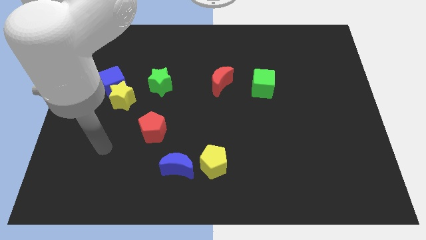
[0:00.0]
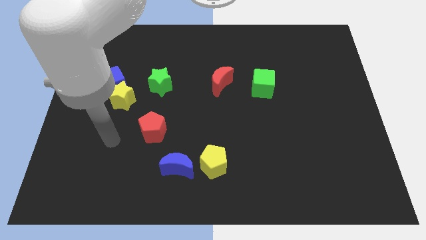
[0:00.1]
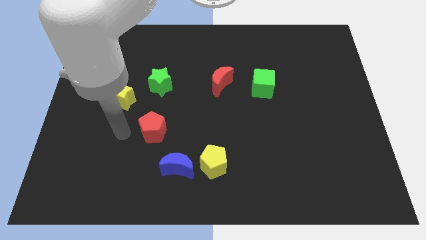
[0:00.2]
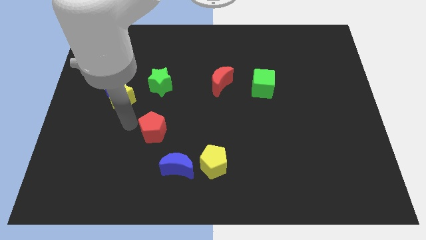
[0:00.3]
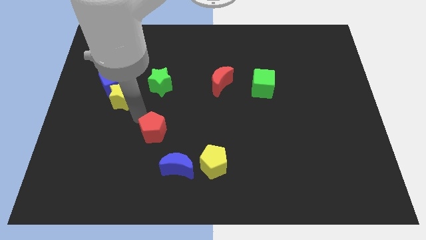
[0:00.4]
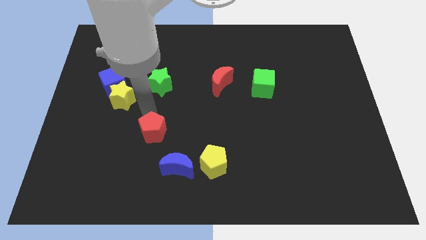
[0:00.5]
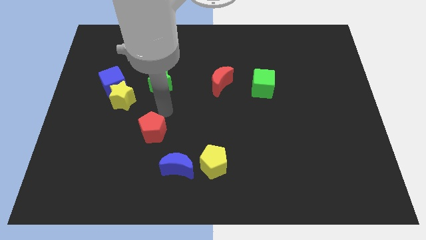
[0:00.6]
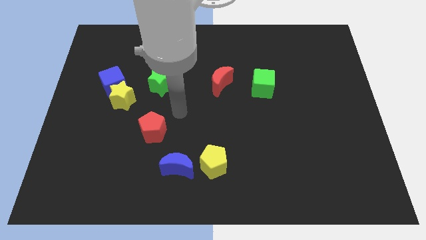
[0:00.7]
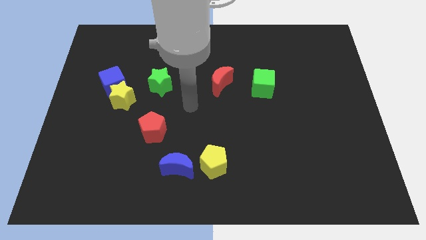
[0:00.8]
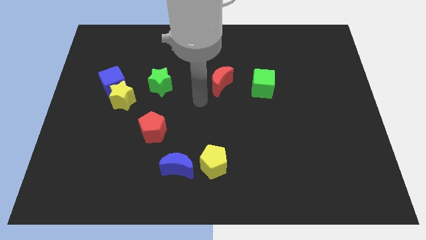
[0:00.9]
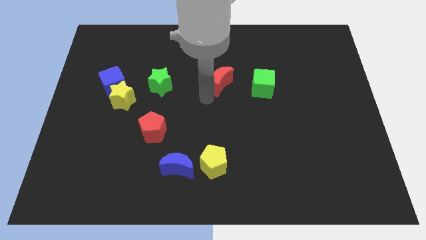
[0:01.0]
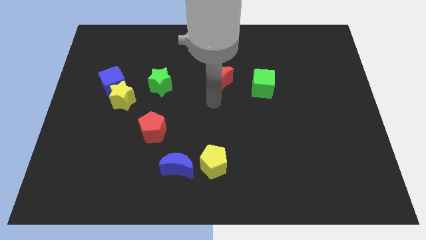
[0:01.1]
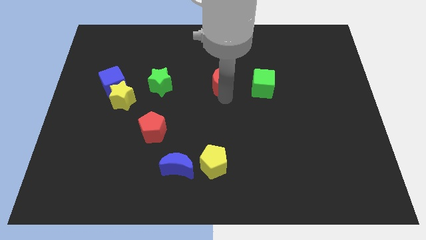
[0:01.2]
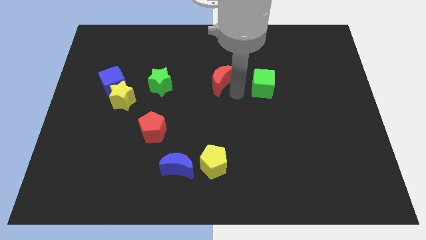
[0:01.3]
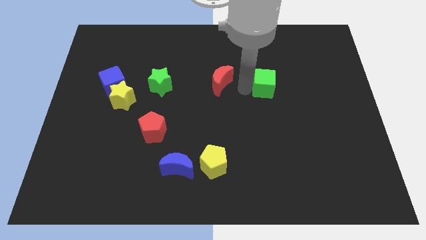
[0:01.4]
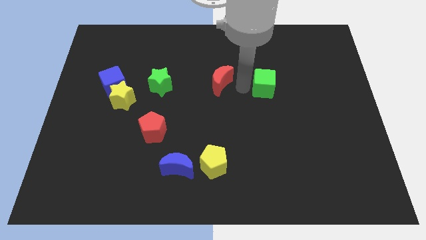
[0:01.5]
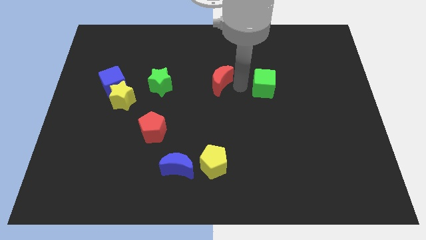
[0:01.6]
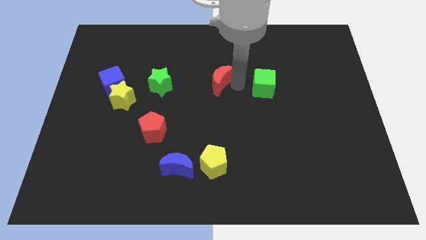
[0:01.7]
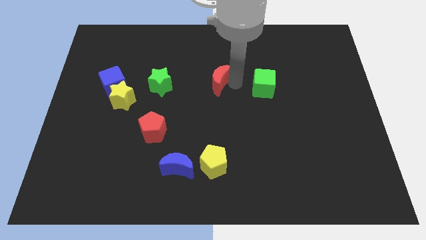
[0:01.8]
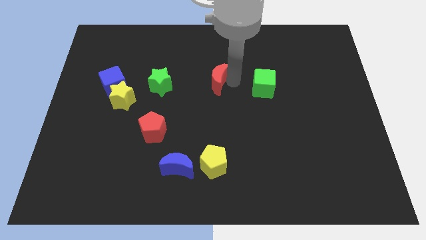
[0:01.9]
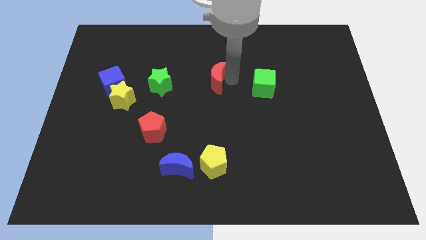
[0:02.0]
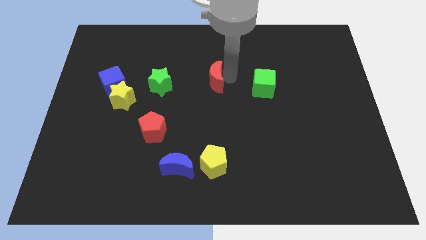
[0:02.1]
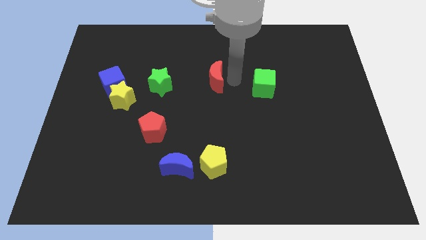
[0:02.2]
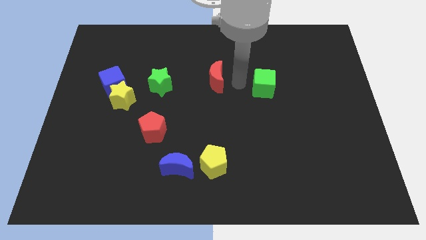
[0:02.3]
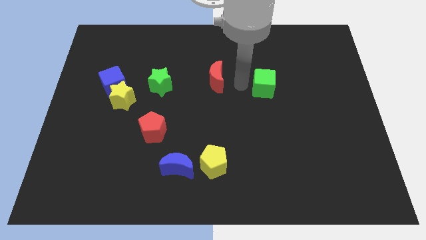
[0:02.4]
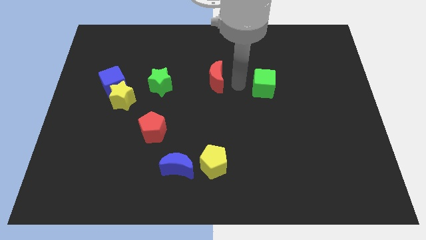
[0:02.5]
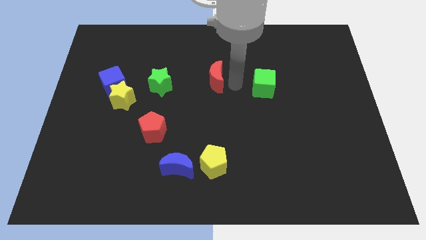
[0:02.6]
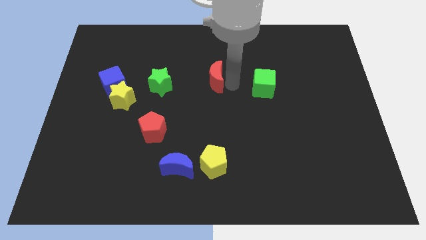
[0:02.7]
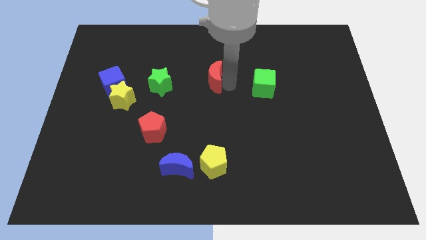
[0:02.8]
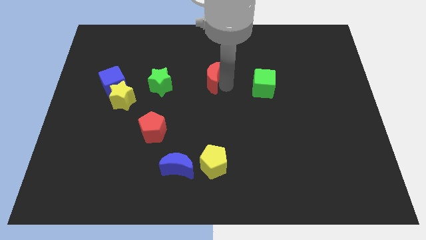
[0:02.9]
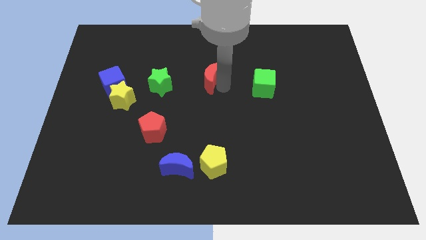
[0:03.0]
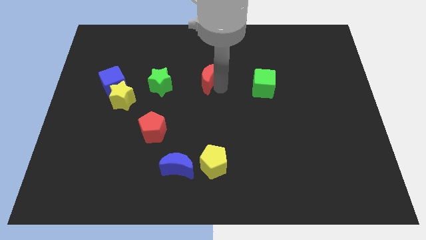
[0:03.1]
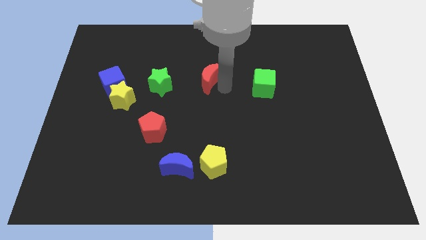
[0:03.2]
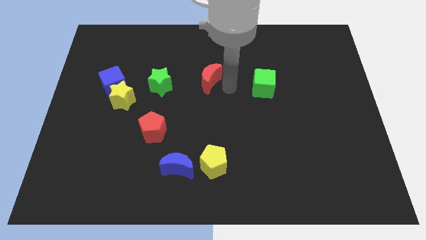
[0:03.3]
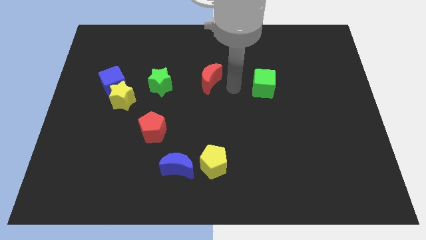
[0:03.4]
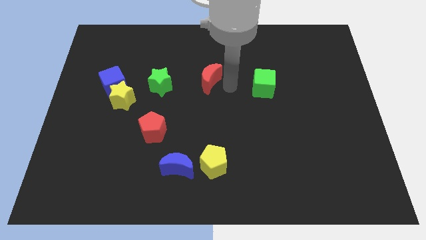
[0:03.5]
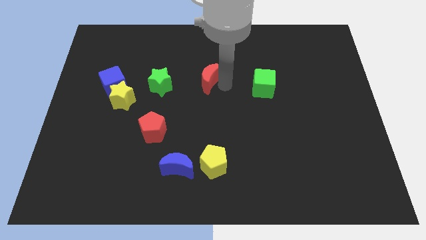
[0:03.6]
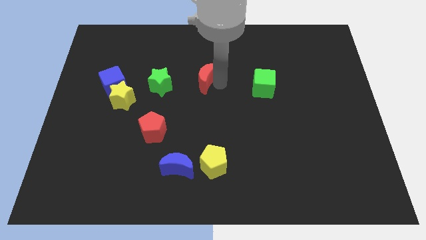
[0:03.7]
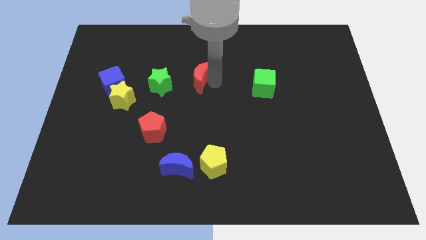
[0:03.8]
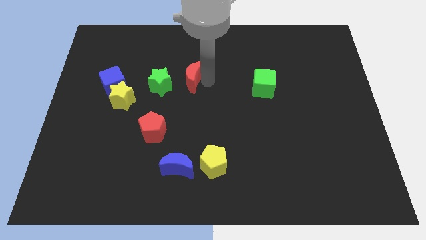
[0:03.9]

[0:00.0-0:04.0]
slightly push the red moon left

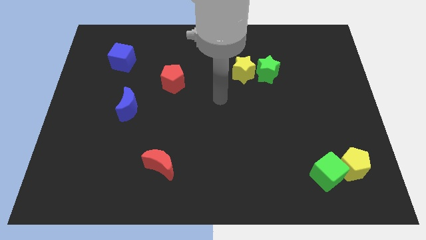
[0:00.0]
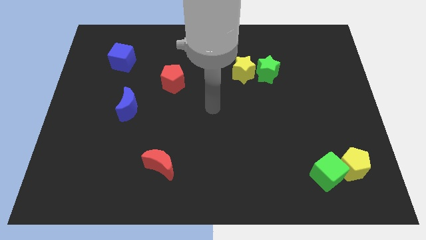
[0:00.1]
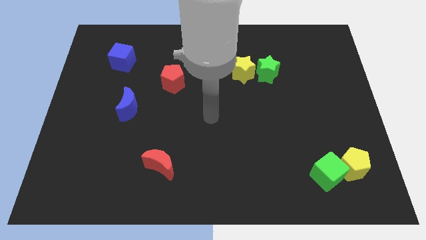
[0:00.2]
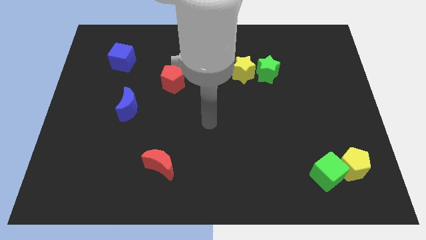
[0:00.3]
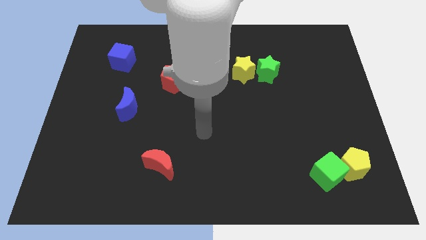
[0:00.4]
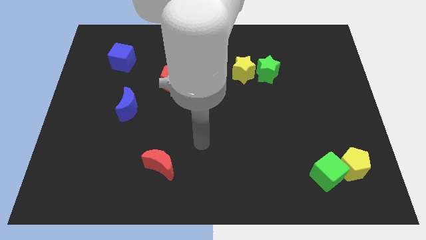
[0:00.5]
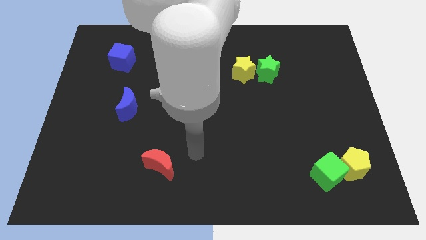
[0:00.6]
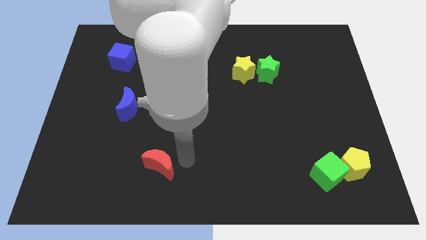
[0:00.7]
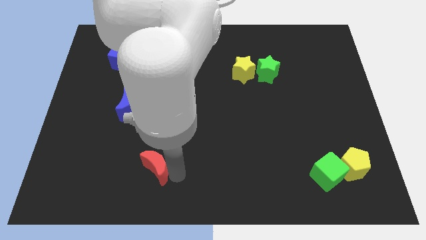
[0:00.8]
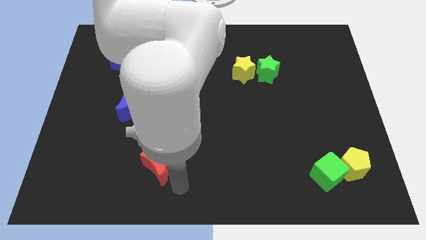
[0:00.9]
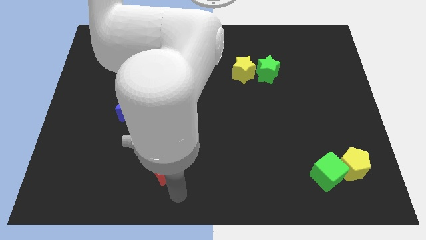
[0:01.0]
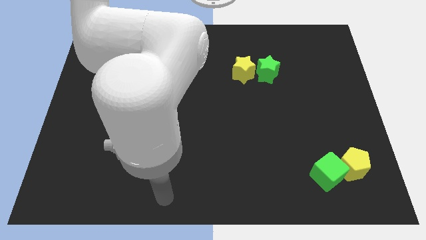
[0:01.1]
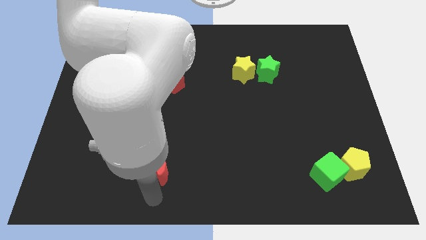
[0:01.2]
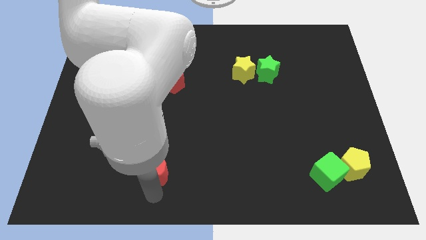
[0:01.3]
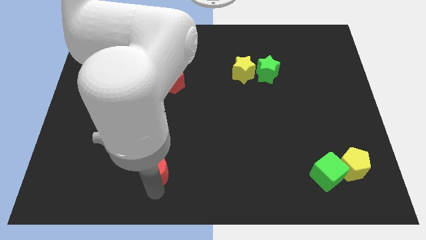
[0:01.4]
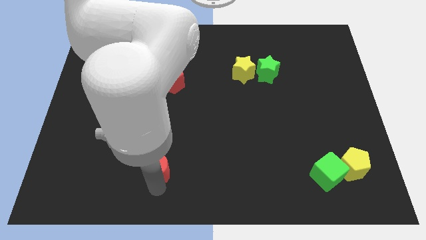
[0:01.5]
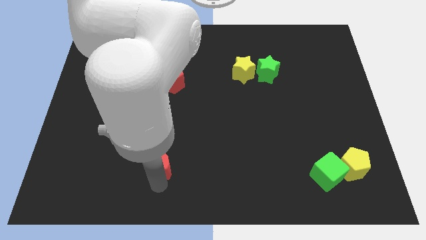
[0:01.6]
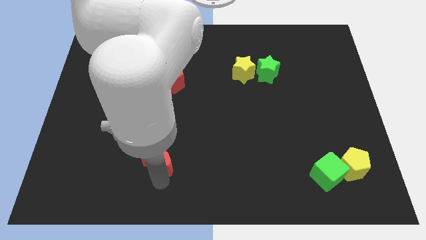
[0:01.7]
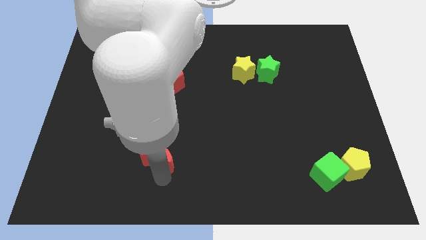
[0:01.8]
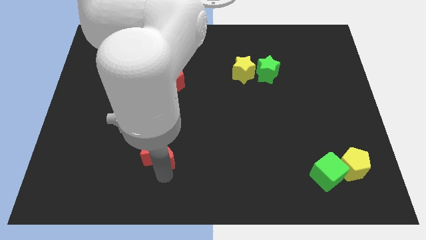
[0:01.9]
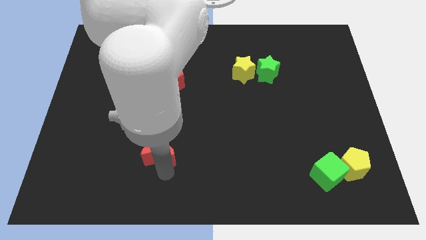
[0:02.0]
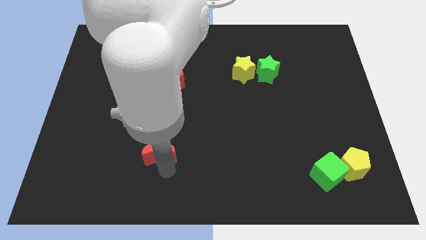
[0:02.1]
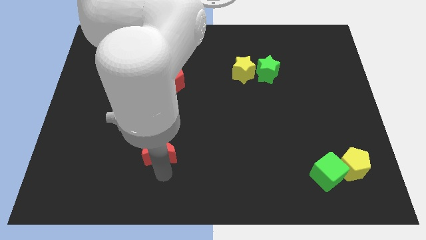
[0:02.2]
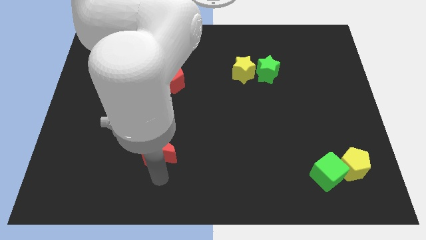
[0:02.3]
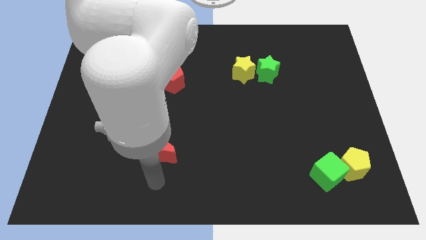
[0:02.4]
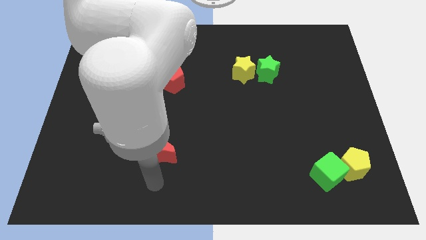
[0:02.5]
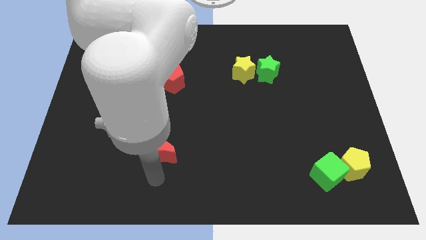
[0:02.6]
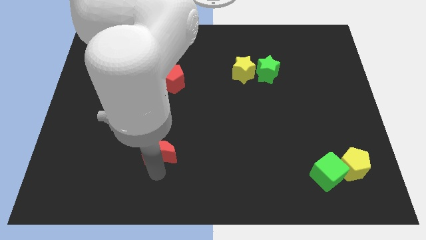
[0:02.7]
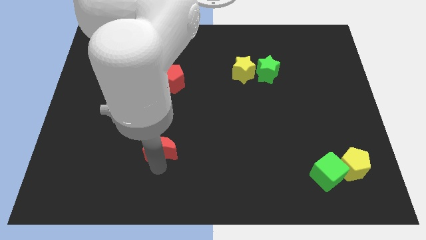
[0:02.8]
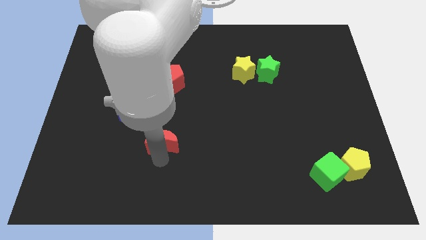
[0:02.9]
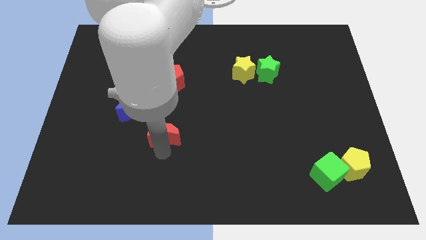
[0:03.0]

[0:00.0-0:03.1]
push the red moon somewhat up

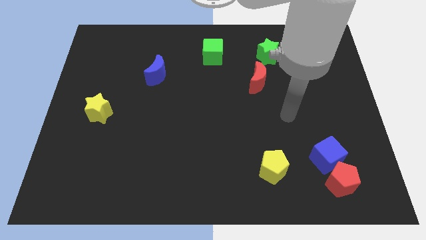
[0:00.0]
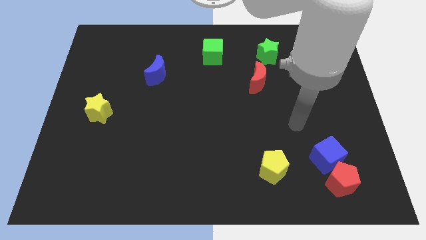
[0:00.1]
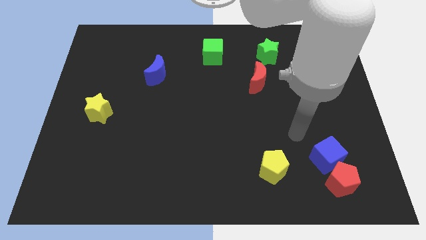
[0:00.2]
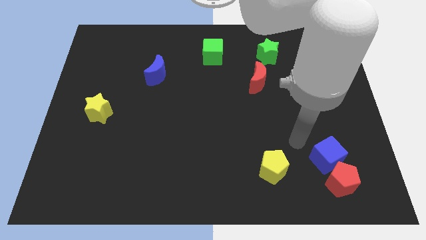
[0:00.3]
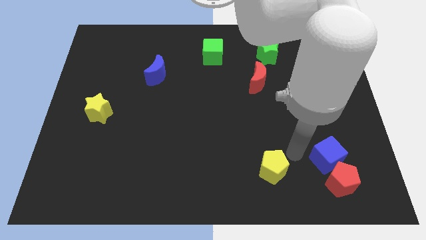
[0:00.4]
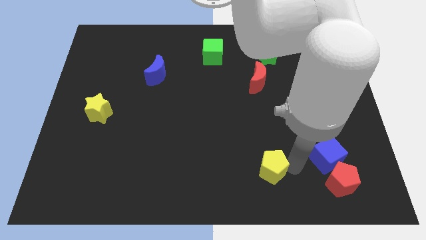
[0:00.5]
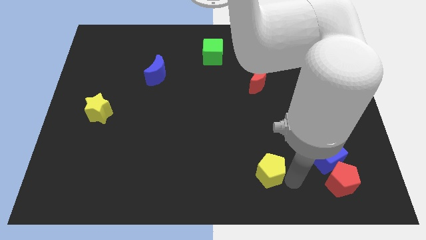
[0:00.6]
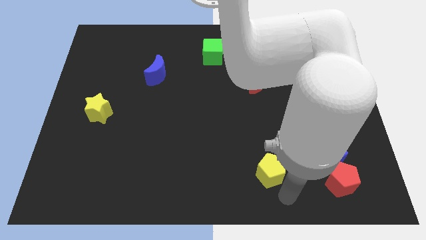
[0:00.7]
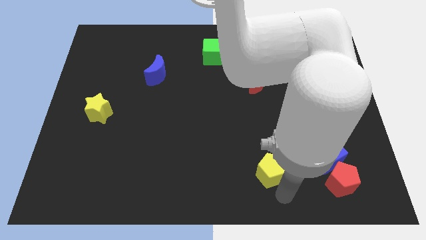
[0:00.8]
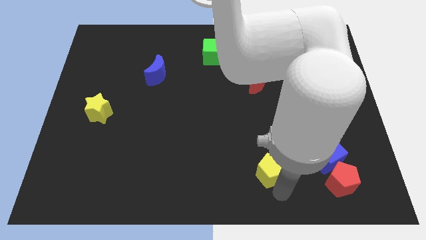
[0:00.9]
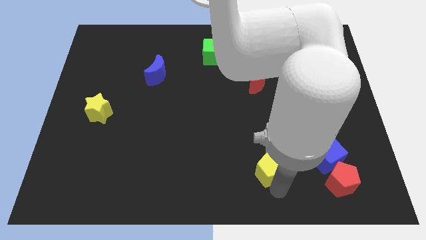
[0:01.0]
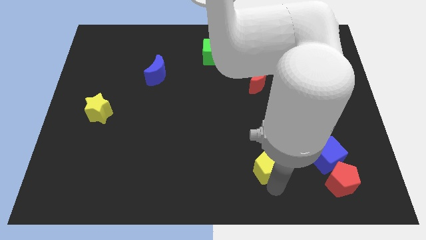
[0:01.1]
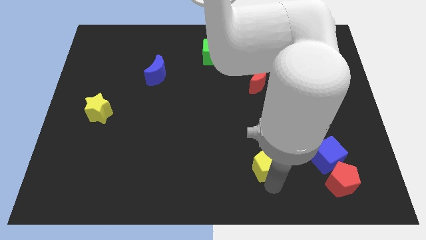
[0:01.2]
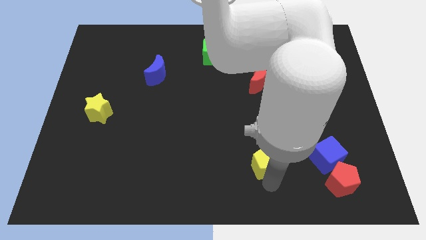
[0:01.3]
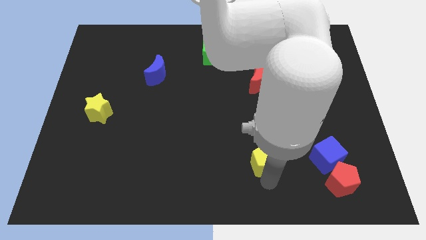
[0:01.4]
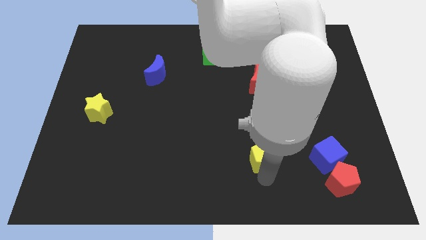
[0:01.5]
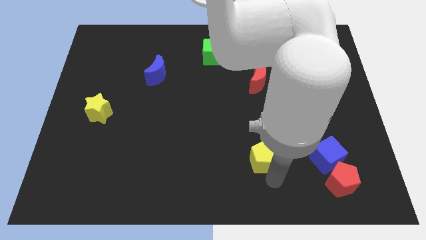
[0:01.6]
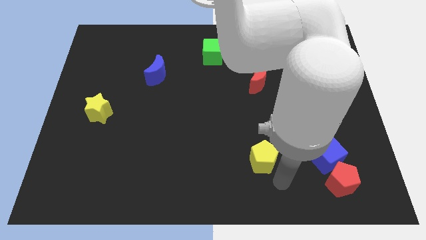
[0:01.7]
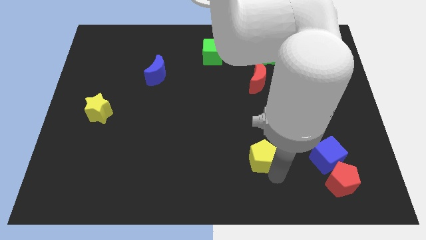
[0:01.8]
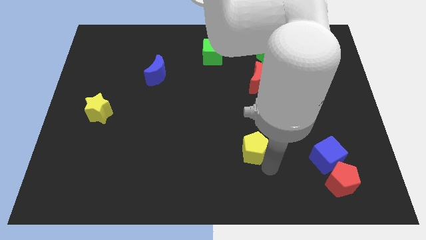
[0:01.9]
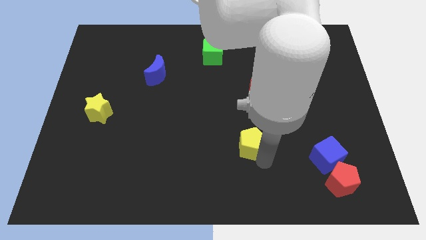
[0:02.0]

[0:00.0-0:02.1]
push the yellow pentagon up and to the left diagonally a bit
